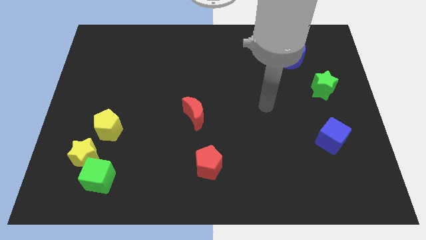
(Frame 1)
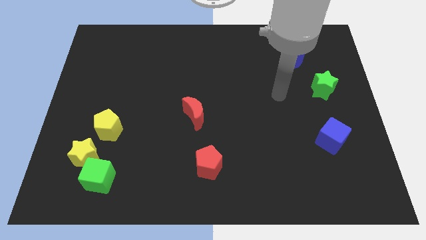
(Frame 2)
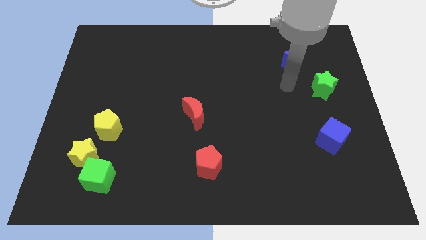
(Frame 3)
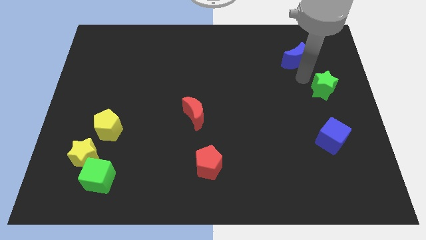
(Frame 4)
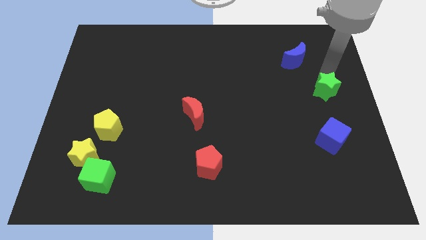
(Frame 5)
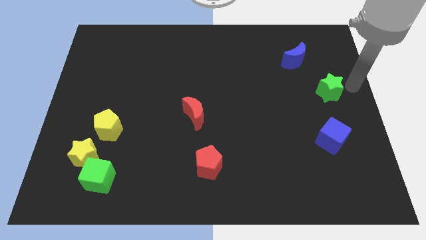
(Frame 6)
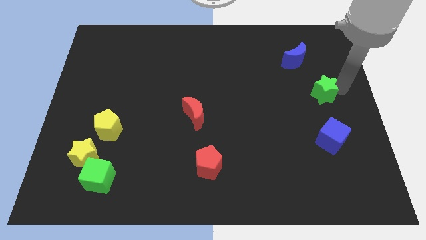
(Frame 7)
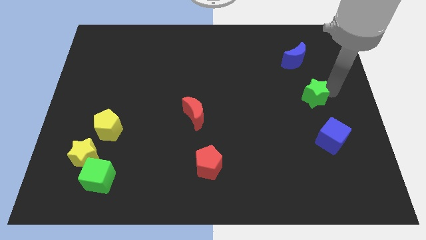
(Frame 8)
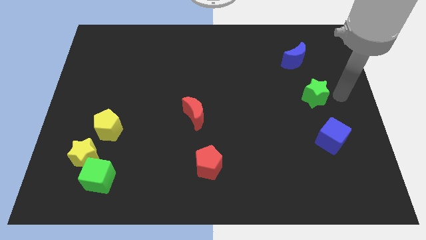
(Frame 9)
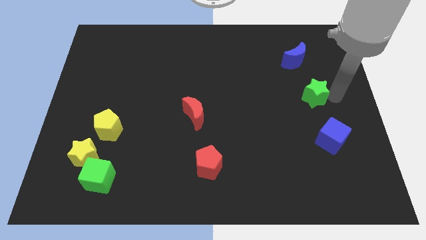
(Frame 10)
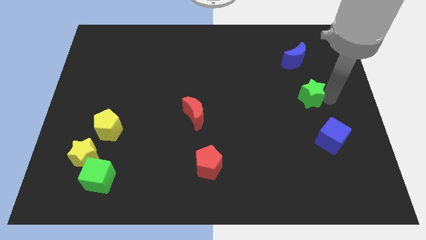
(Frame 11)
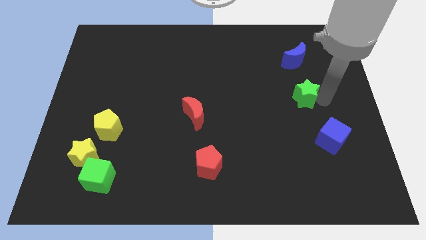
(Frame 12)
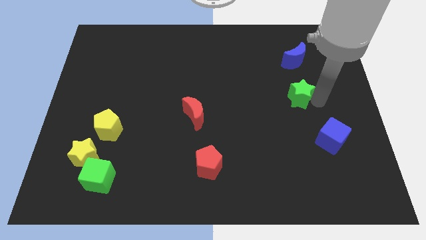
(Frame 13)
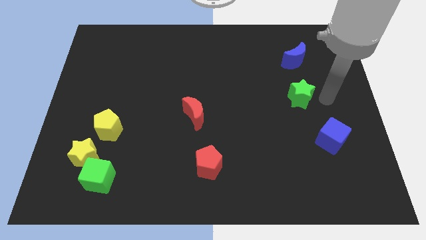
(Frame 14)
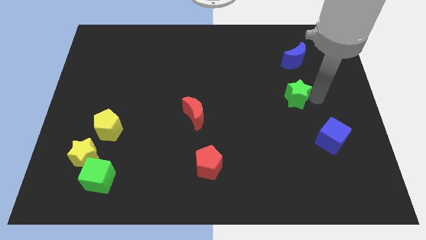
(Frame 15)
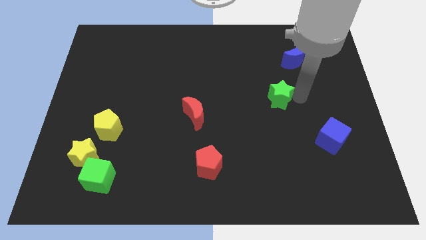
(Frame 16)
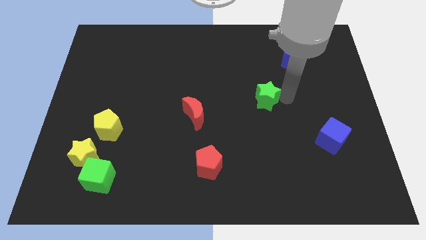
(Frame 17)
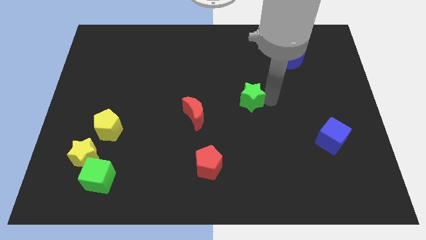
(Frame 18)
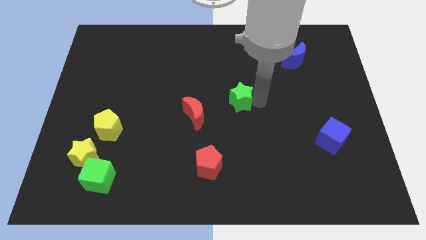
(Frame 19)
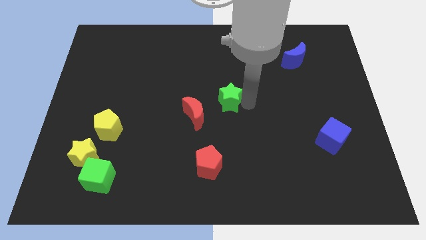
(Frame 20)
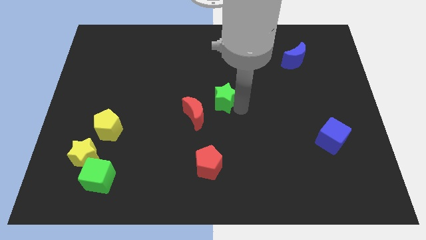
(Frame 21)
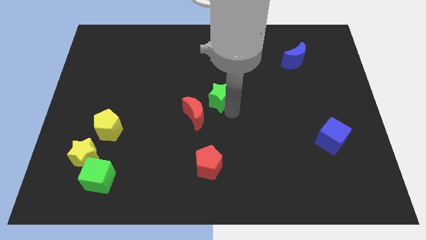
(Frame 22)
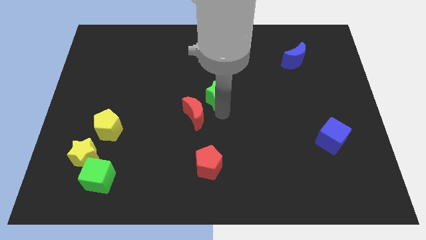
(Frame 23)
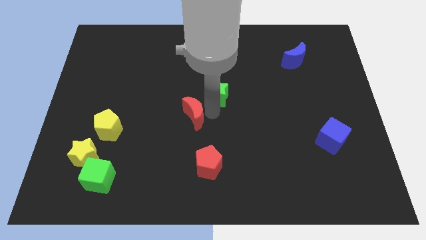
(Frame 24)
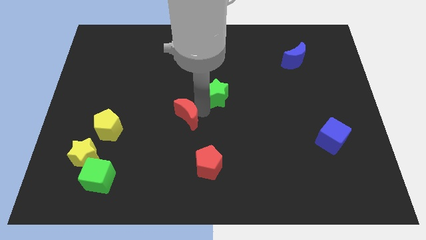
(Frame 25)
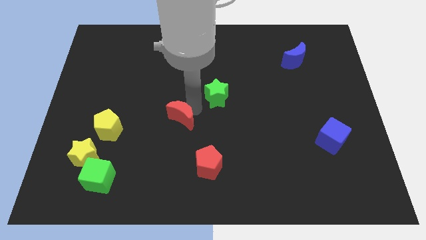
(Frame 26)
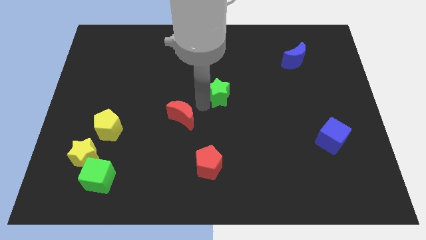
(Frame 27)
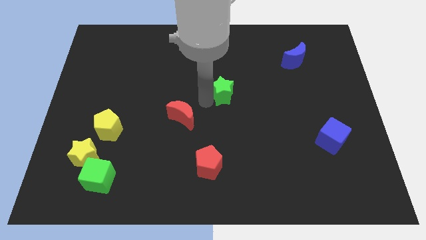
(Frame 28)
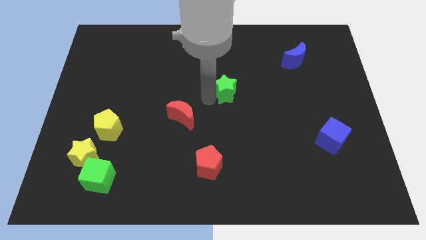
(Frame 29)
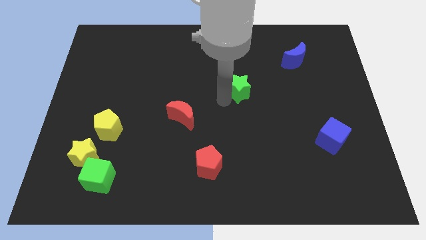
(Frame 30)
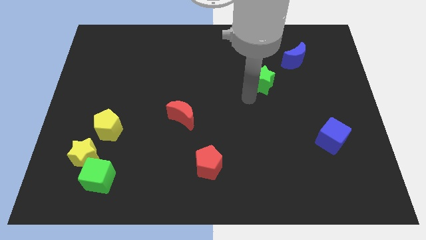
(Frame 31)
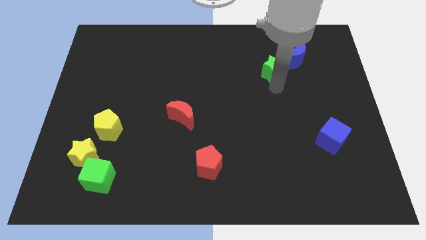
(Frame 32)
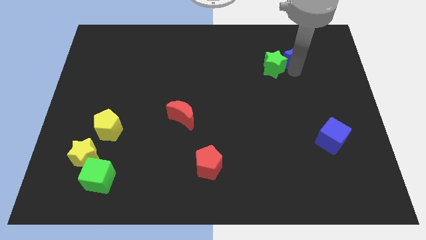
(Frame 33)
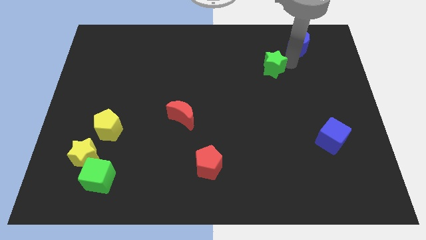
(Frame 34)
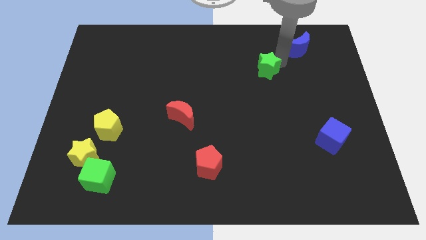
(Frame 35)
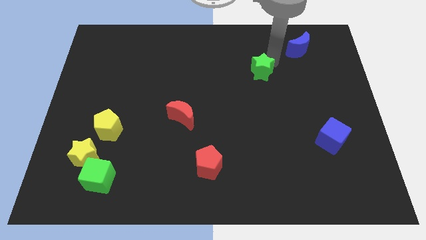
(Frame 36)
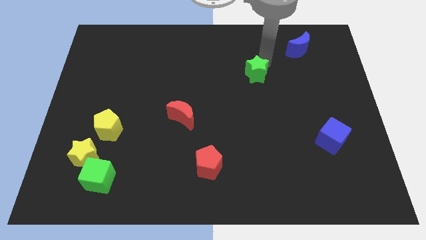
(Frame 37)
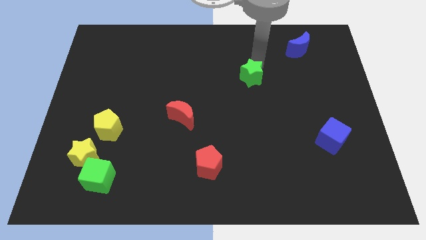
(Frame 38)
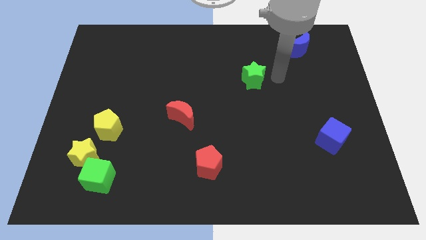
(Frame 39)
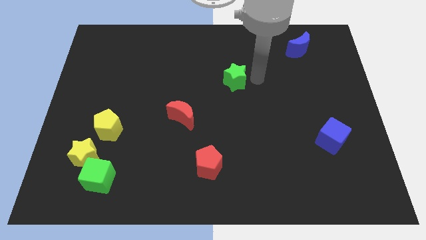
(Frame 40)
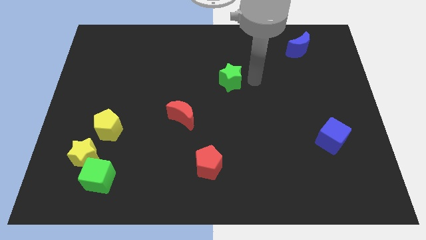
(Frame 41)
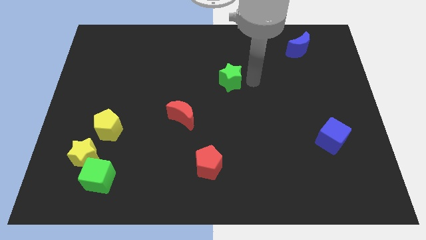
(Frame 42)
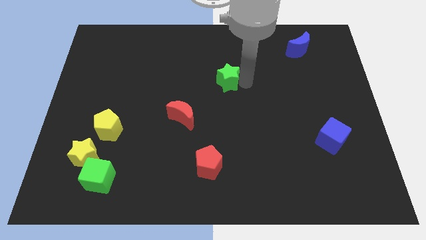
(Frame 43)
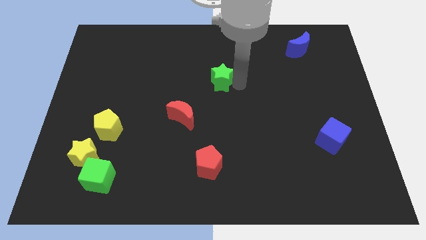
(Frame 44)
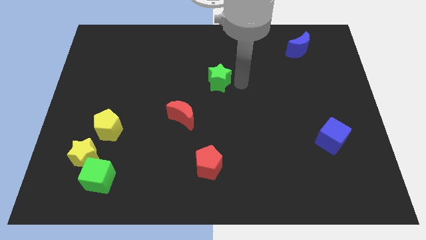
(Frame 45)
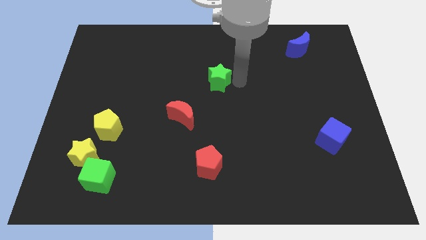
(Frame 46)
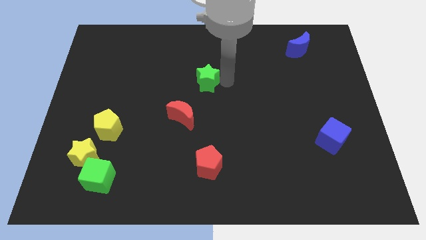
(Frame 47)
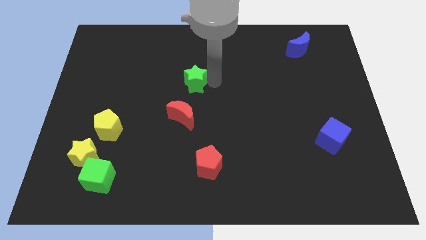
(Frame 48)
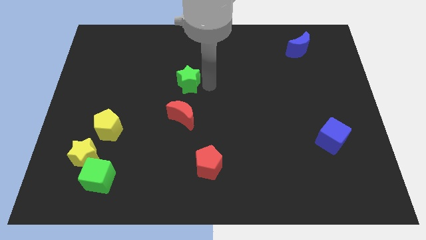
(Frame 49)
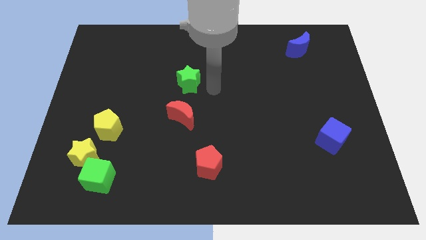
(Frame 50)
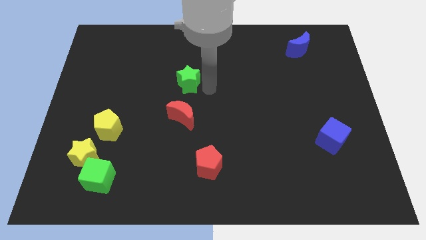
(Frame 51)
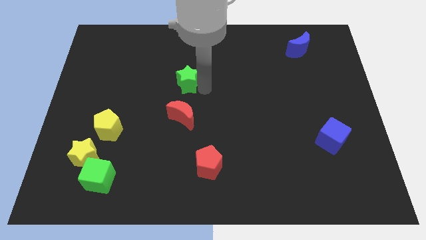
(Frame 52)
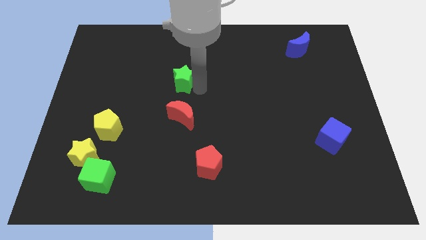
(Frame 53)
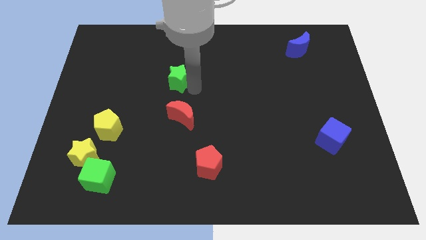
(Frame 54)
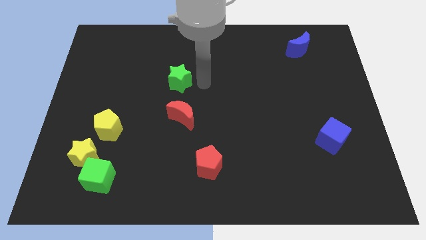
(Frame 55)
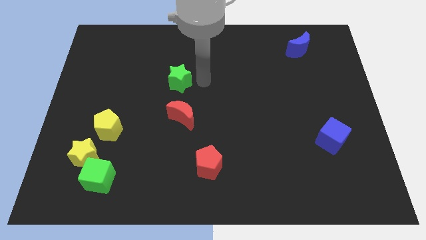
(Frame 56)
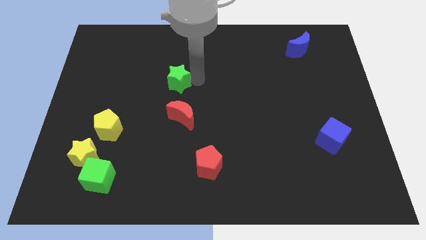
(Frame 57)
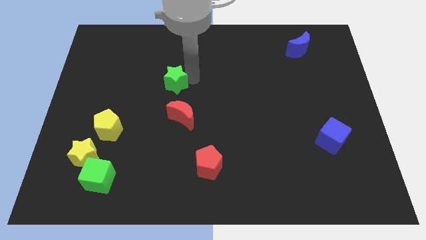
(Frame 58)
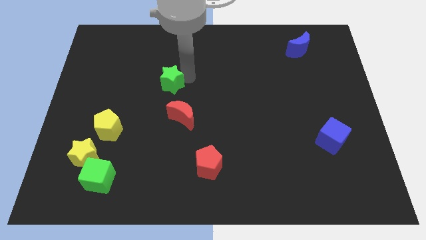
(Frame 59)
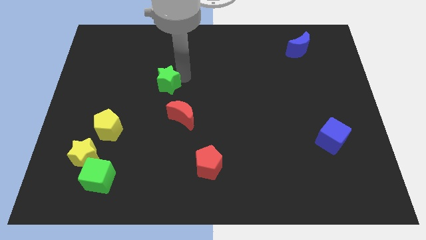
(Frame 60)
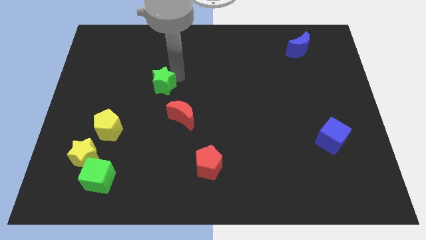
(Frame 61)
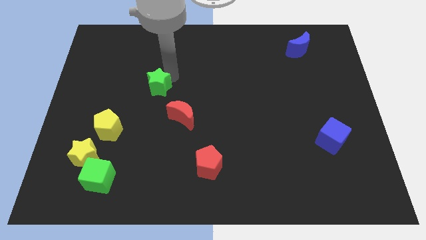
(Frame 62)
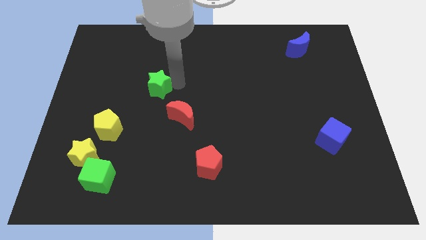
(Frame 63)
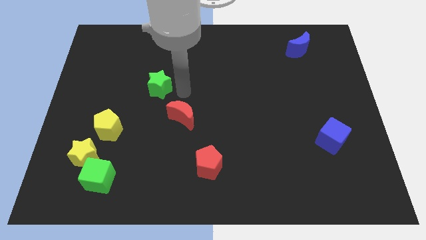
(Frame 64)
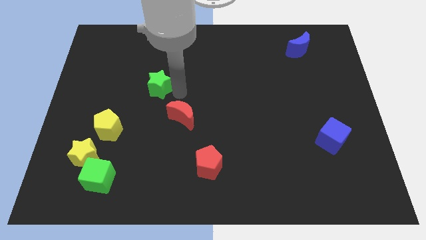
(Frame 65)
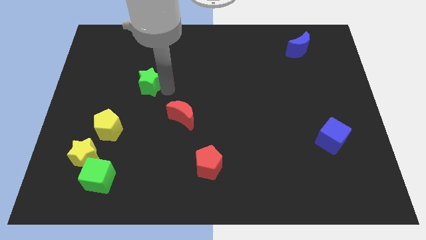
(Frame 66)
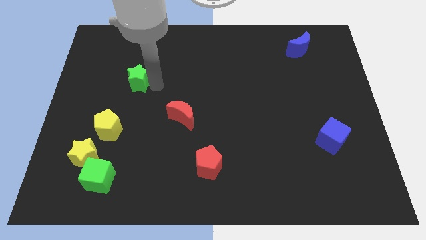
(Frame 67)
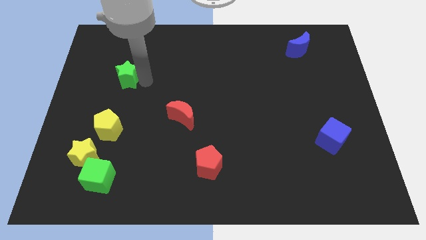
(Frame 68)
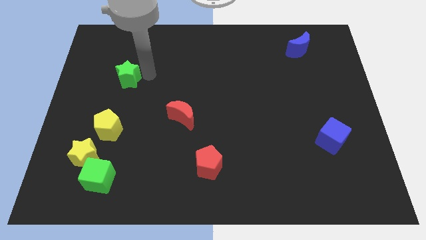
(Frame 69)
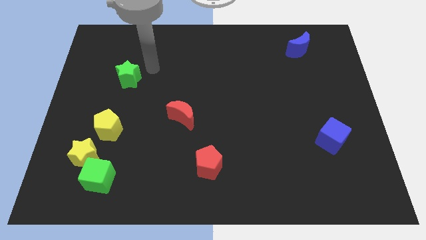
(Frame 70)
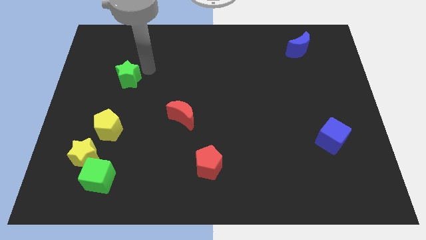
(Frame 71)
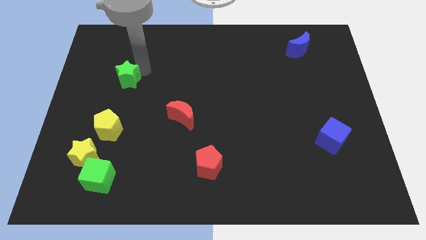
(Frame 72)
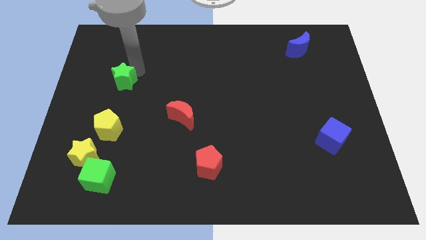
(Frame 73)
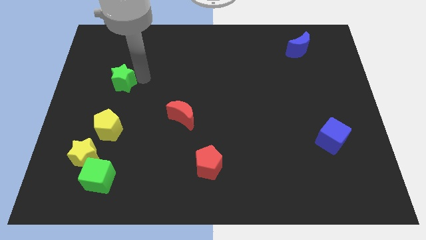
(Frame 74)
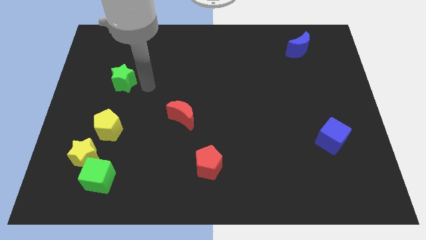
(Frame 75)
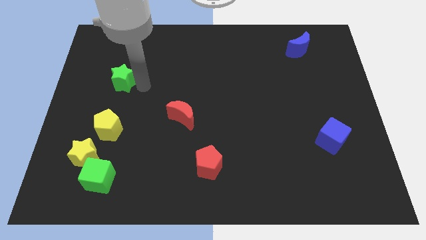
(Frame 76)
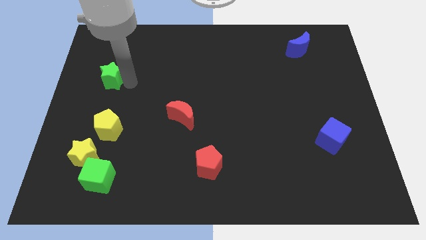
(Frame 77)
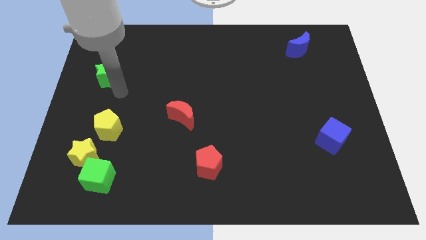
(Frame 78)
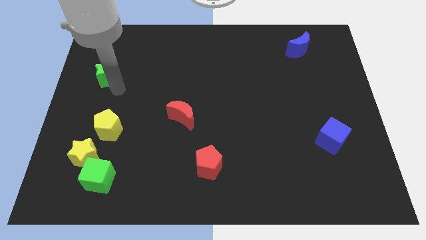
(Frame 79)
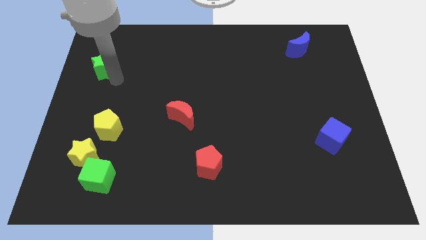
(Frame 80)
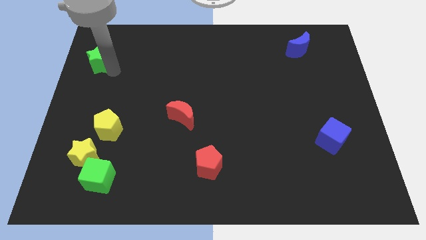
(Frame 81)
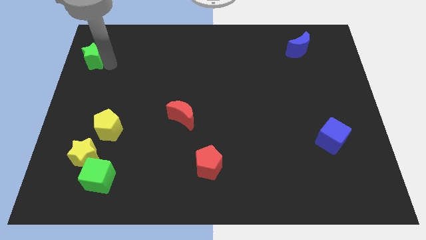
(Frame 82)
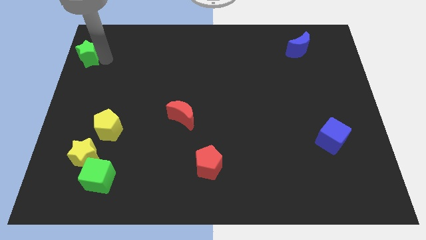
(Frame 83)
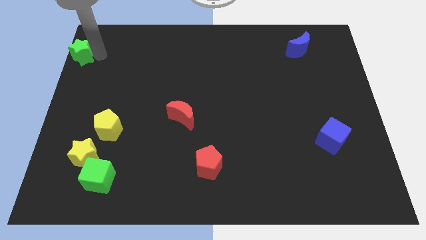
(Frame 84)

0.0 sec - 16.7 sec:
slide the green star to the upper left corner
